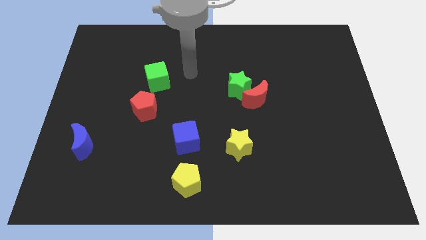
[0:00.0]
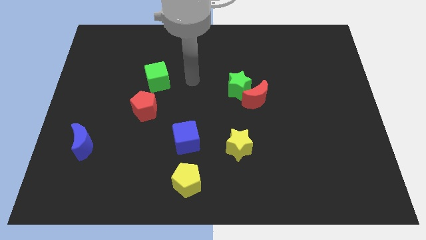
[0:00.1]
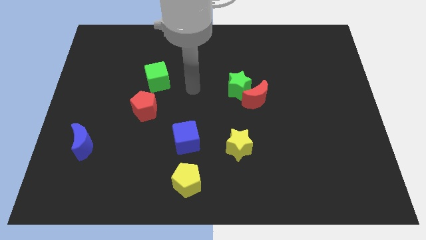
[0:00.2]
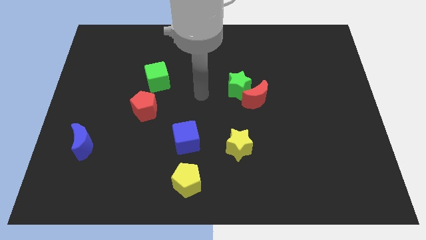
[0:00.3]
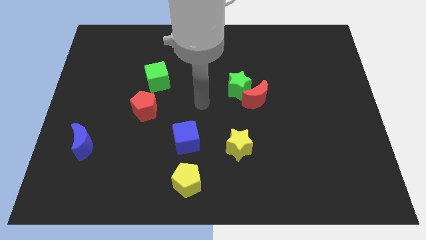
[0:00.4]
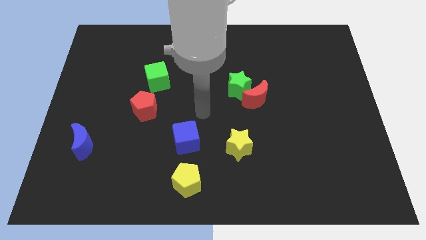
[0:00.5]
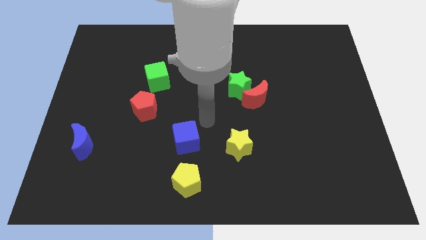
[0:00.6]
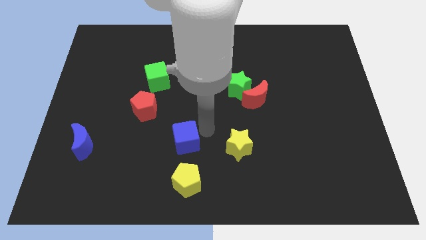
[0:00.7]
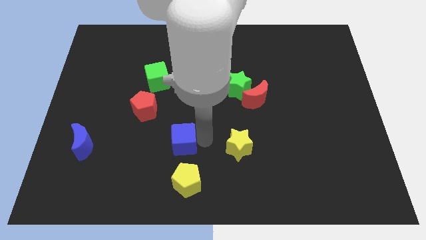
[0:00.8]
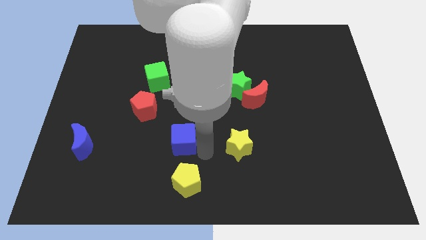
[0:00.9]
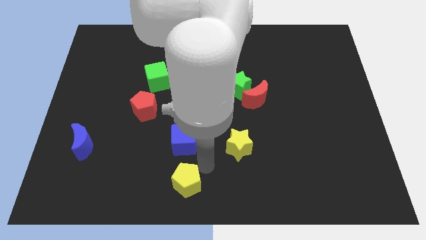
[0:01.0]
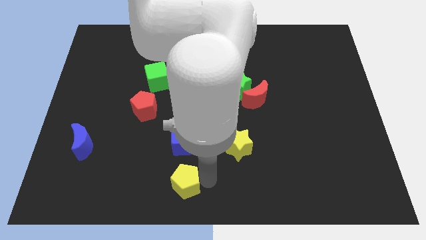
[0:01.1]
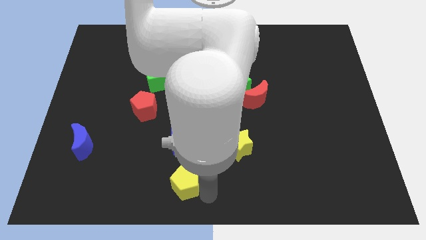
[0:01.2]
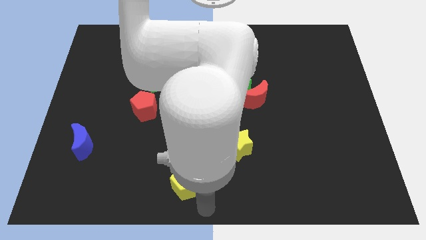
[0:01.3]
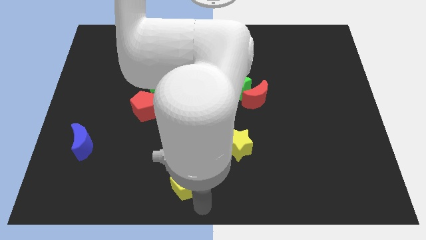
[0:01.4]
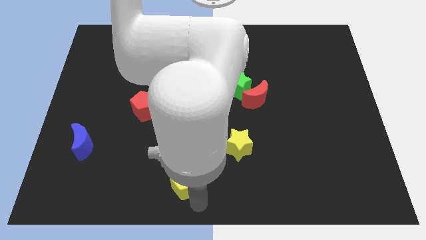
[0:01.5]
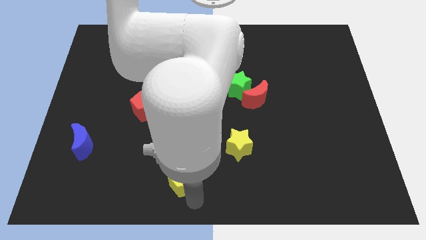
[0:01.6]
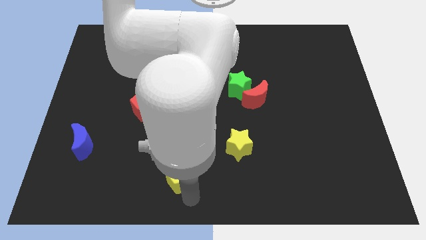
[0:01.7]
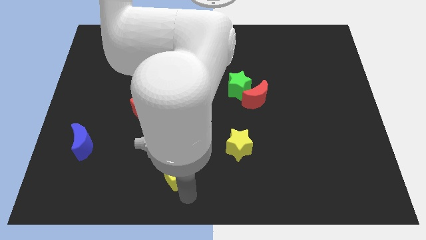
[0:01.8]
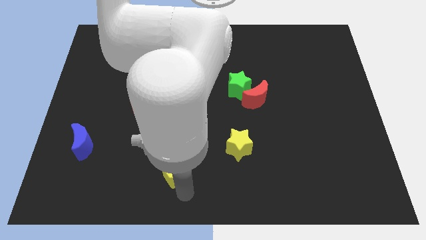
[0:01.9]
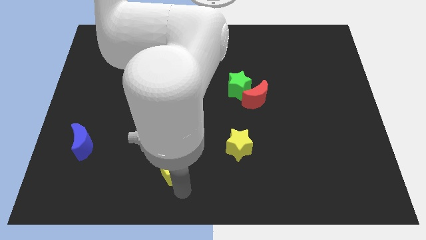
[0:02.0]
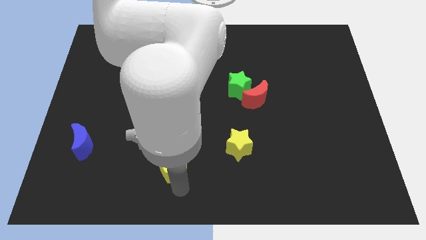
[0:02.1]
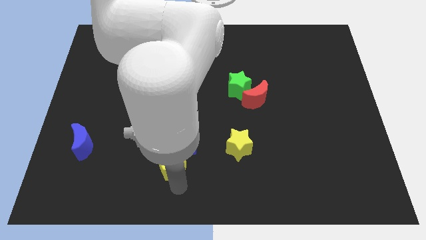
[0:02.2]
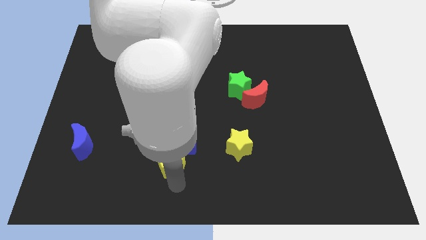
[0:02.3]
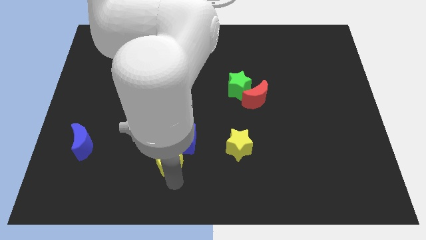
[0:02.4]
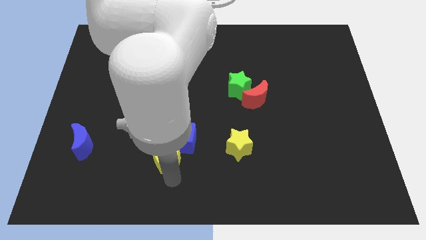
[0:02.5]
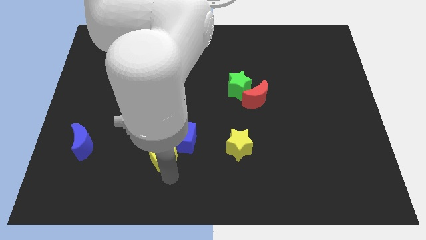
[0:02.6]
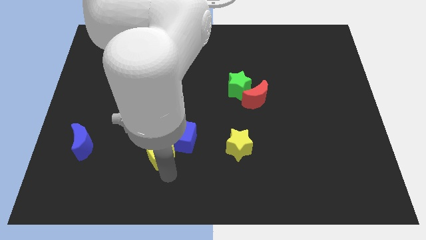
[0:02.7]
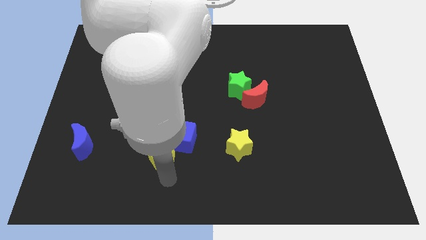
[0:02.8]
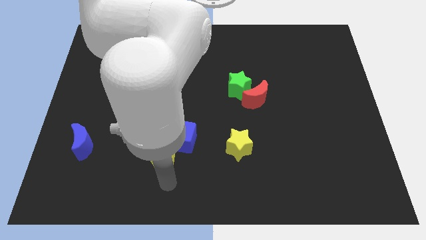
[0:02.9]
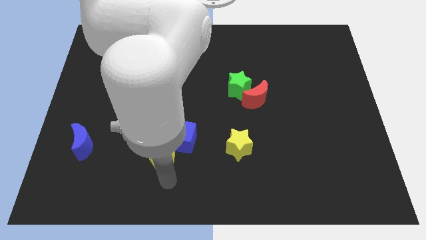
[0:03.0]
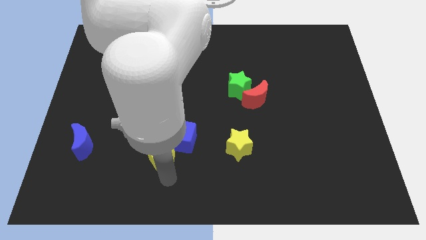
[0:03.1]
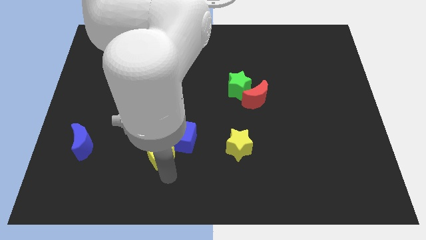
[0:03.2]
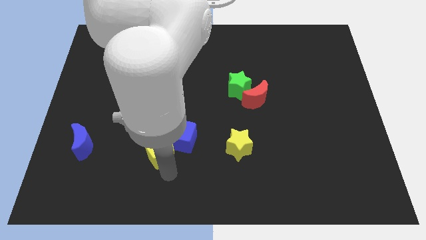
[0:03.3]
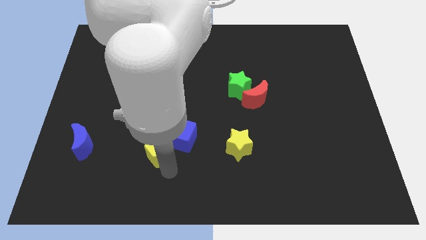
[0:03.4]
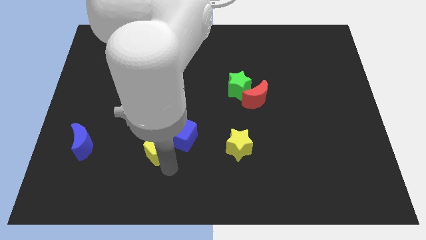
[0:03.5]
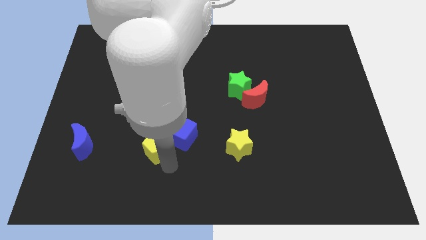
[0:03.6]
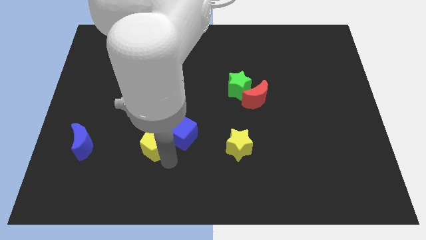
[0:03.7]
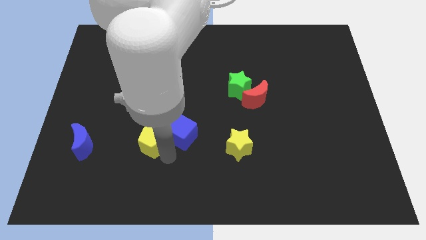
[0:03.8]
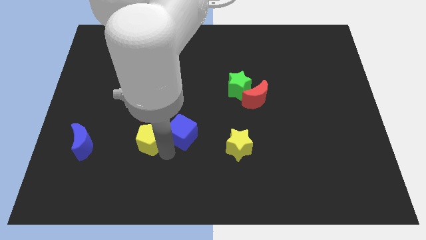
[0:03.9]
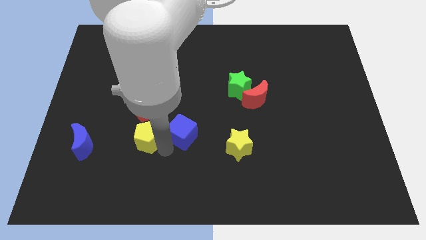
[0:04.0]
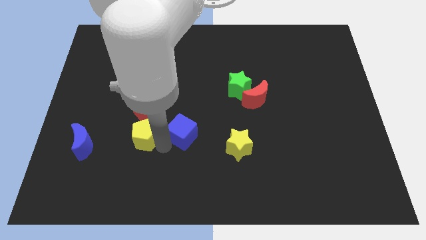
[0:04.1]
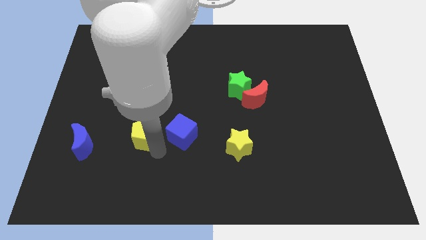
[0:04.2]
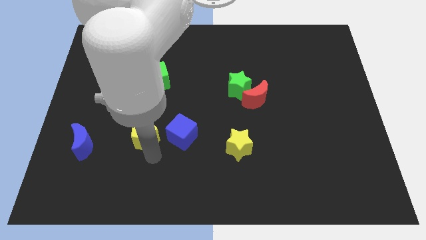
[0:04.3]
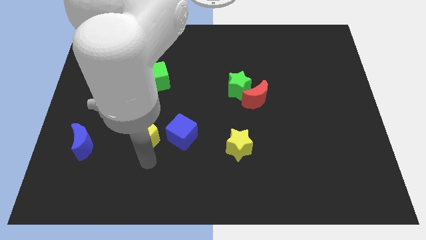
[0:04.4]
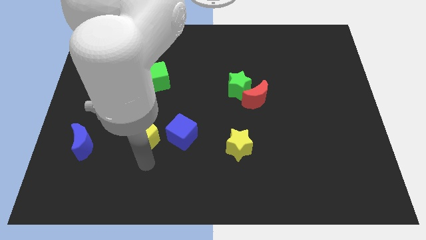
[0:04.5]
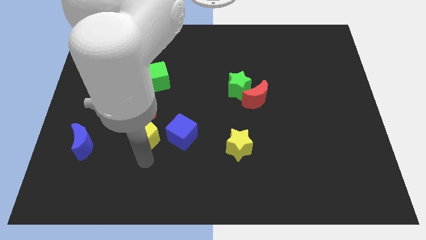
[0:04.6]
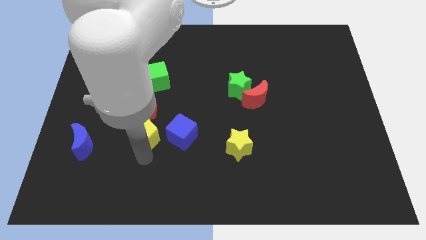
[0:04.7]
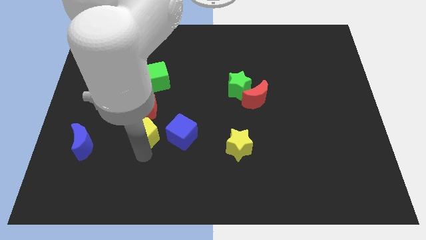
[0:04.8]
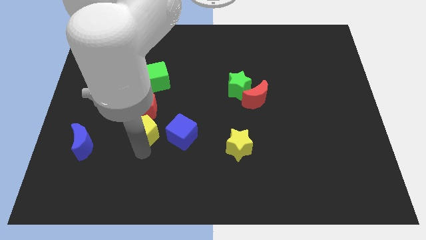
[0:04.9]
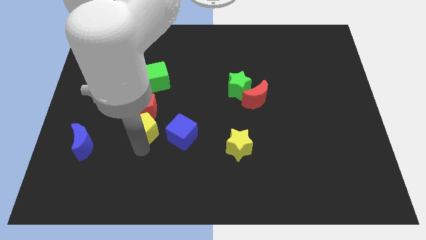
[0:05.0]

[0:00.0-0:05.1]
push the yellow pentagon towards the red pentagon

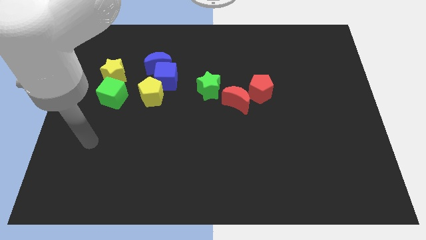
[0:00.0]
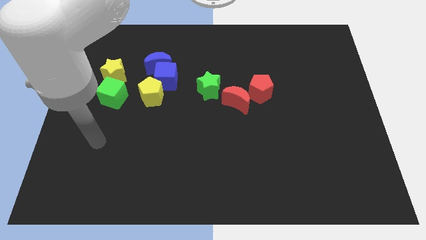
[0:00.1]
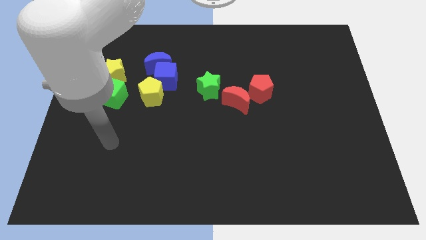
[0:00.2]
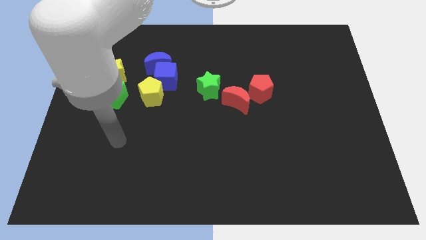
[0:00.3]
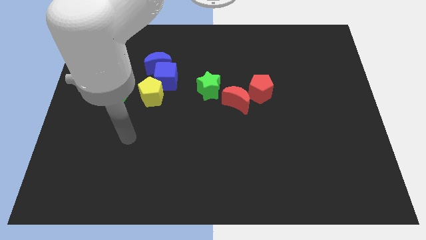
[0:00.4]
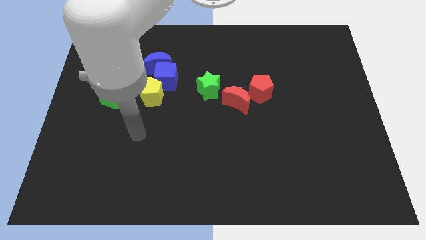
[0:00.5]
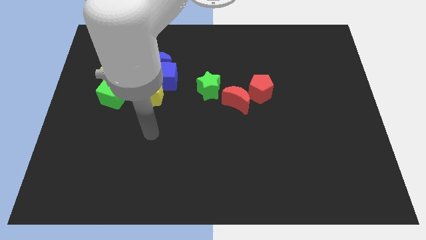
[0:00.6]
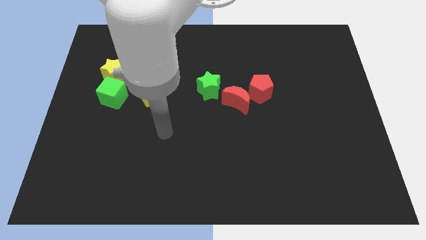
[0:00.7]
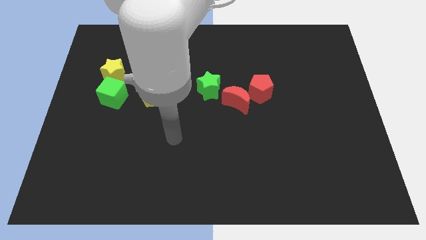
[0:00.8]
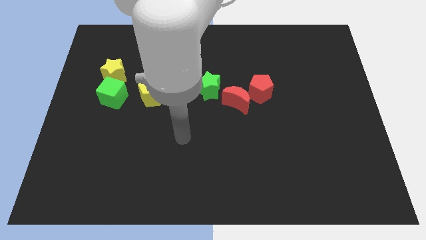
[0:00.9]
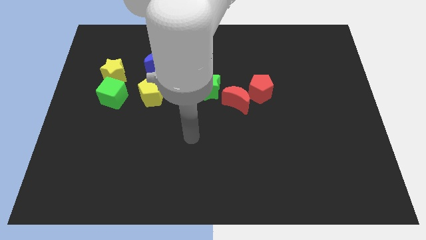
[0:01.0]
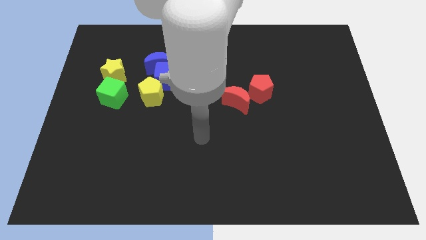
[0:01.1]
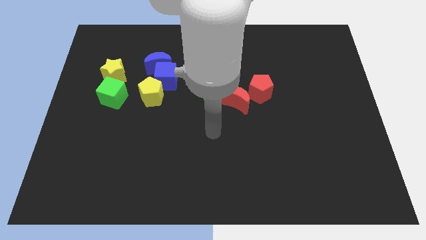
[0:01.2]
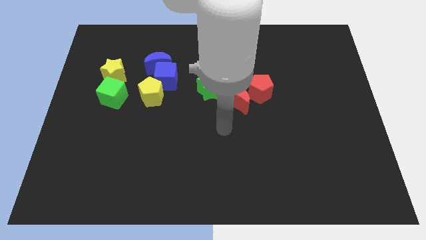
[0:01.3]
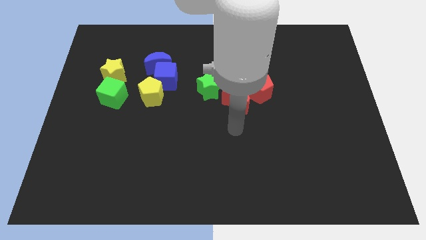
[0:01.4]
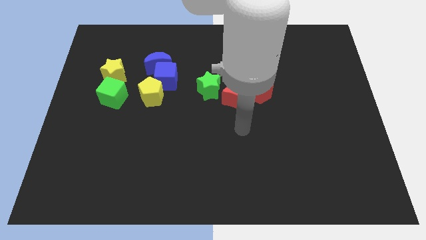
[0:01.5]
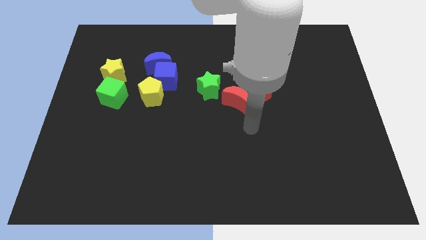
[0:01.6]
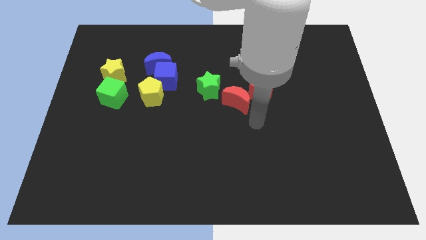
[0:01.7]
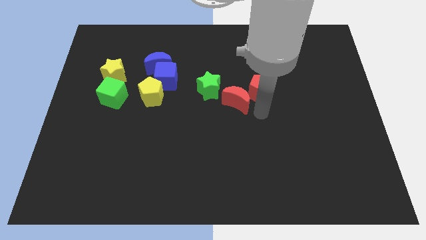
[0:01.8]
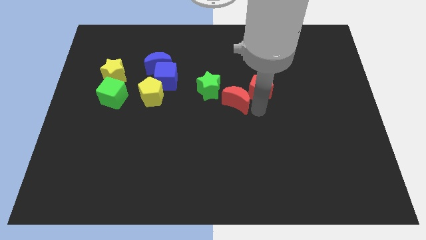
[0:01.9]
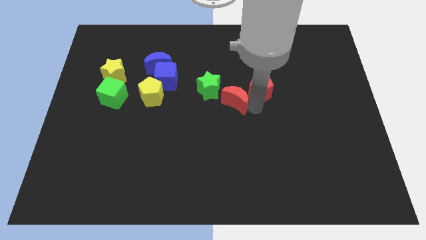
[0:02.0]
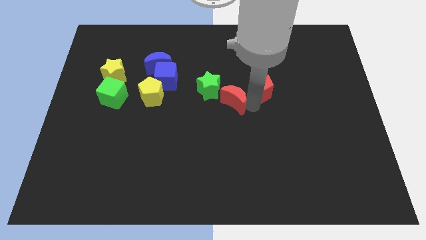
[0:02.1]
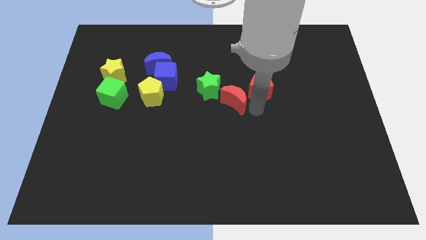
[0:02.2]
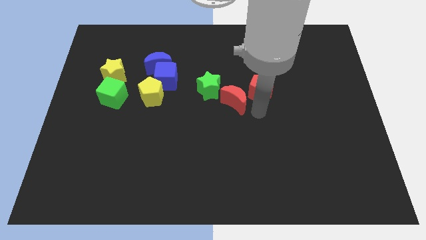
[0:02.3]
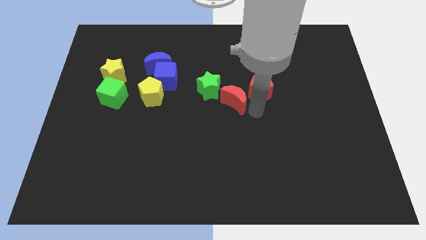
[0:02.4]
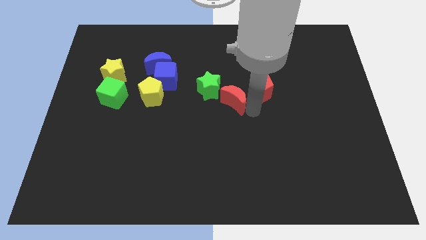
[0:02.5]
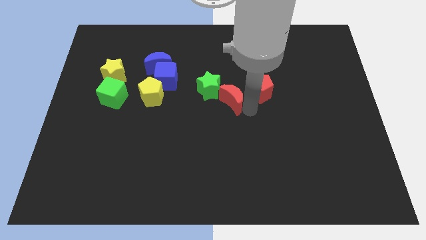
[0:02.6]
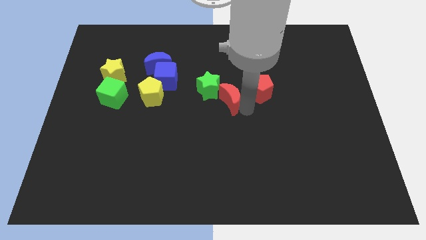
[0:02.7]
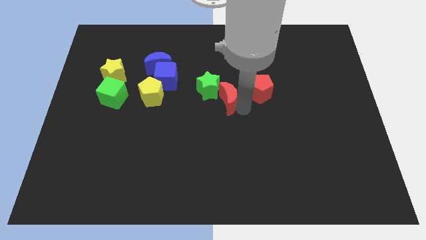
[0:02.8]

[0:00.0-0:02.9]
move the red moon close to the green star
